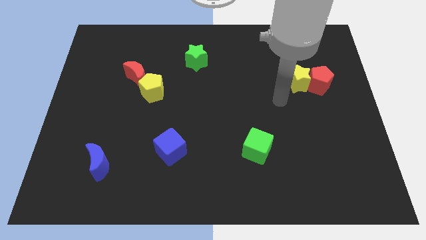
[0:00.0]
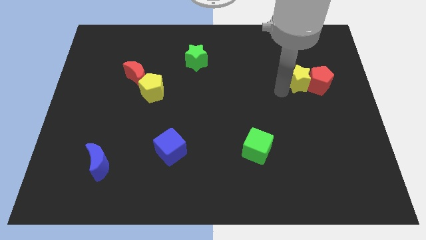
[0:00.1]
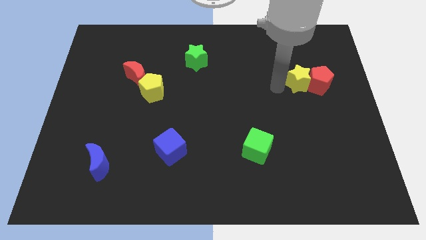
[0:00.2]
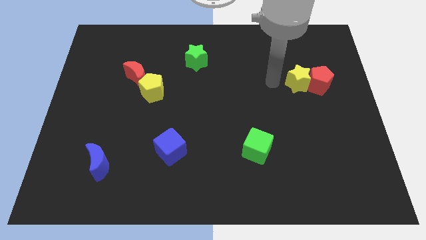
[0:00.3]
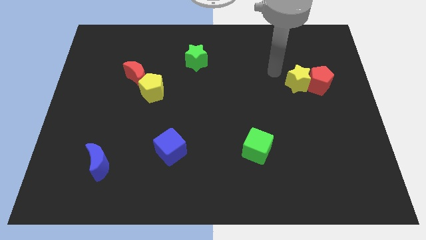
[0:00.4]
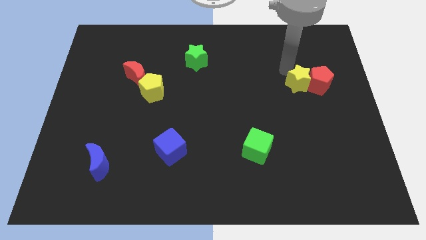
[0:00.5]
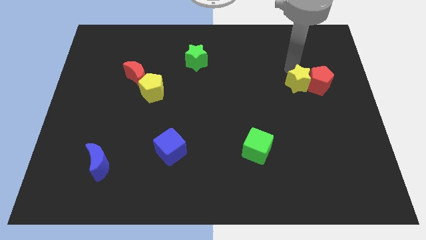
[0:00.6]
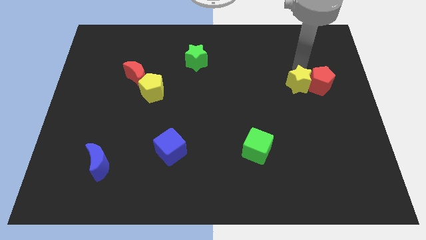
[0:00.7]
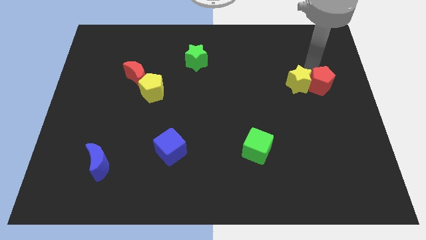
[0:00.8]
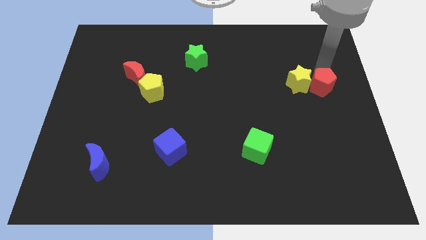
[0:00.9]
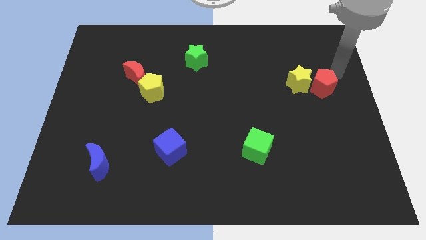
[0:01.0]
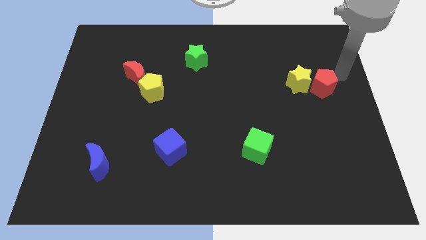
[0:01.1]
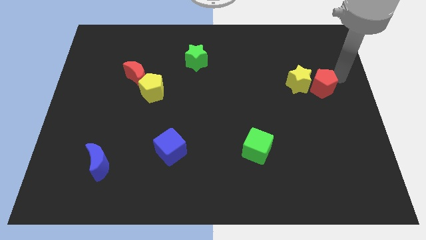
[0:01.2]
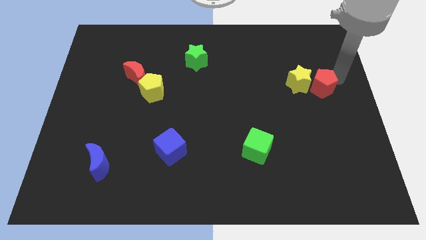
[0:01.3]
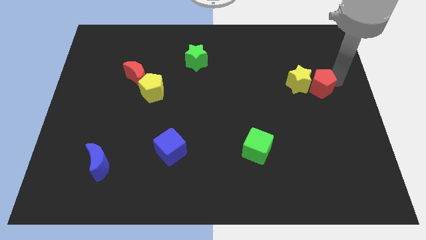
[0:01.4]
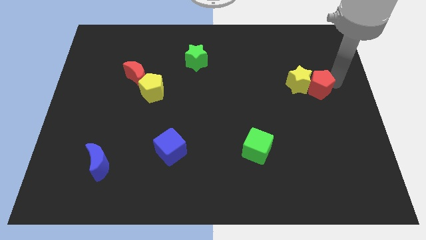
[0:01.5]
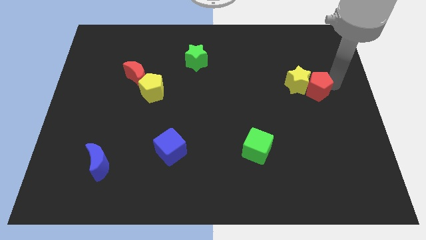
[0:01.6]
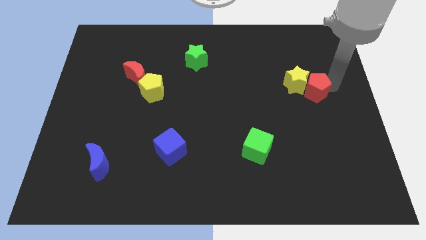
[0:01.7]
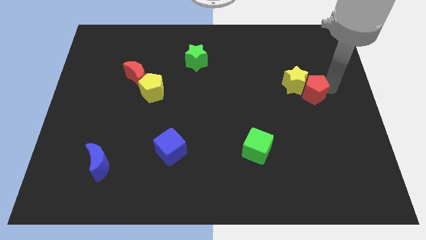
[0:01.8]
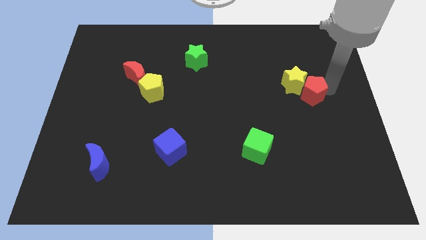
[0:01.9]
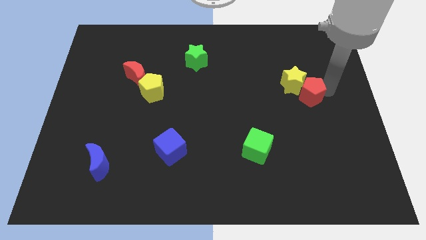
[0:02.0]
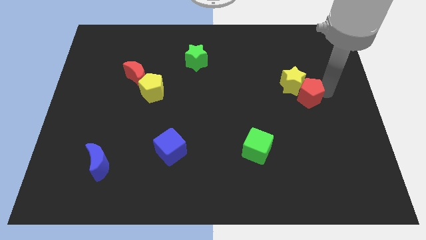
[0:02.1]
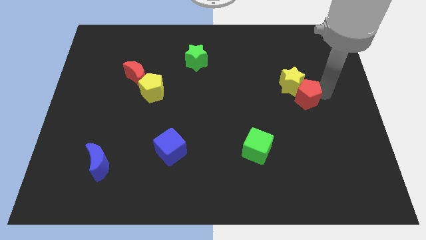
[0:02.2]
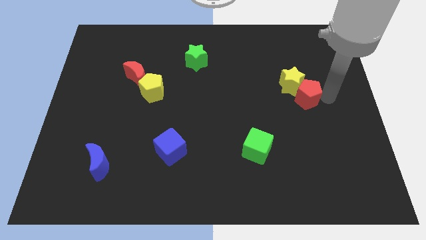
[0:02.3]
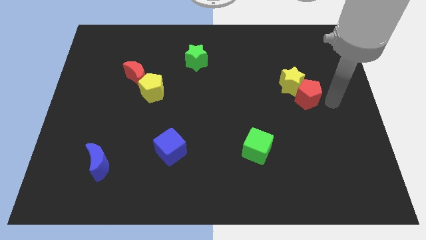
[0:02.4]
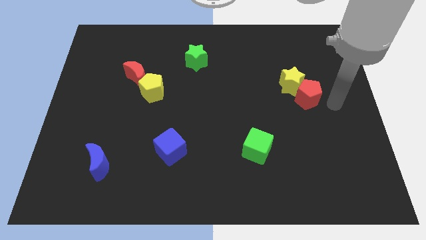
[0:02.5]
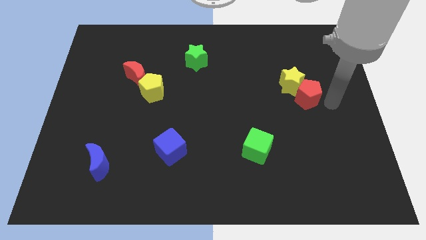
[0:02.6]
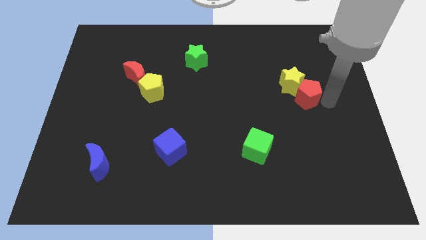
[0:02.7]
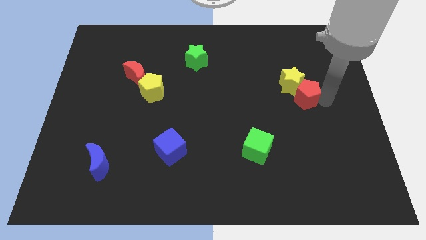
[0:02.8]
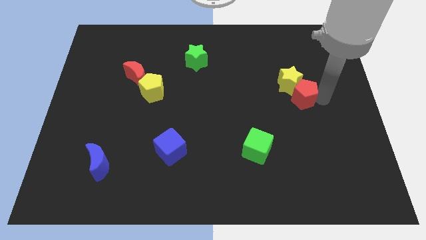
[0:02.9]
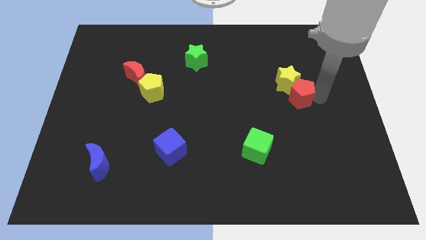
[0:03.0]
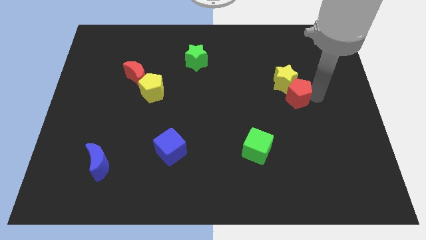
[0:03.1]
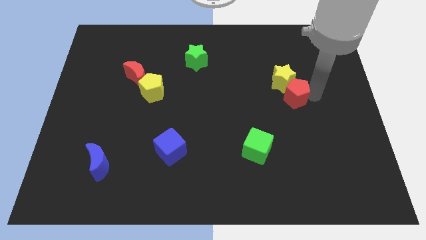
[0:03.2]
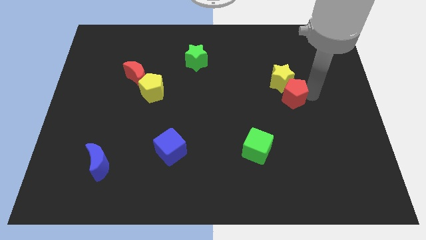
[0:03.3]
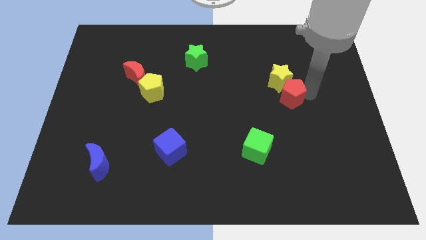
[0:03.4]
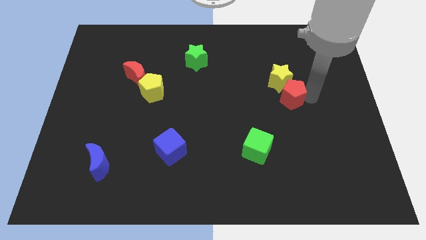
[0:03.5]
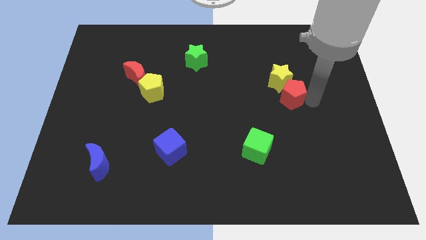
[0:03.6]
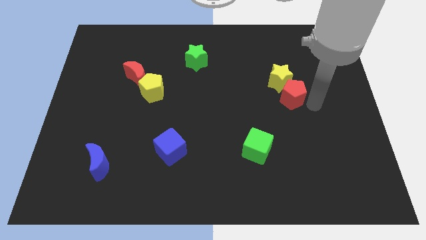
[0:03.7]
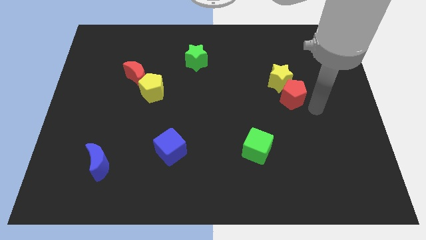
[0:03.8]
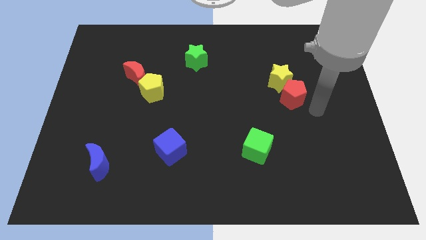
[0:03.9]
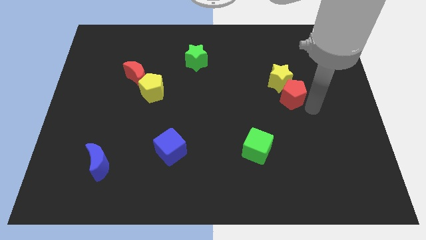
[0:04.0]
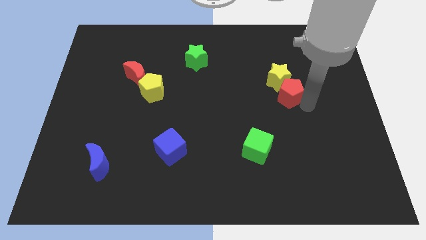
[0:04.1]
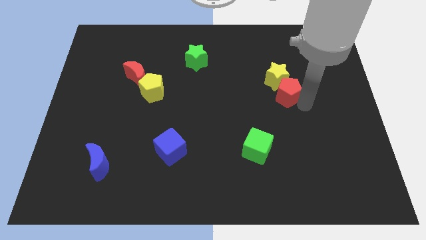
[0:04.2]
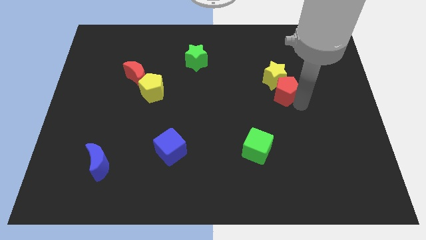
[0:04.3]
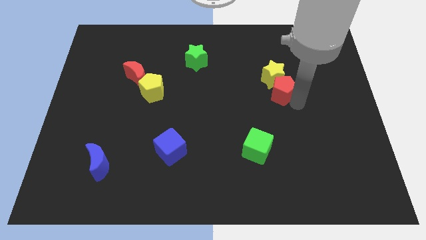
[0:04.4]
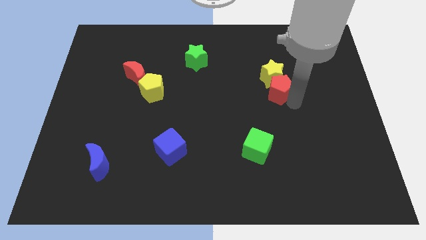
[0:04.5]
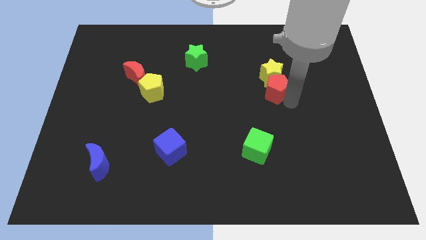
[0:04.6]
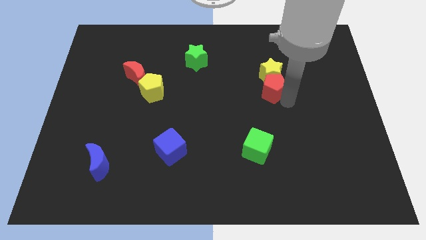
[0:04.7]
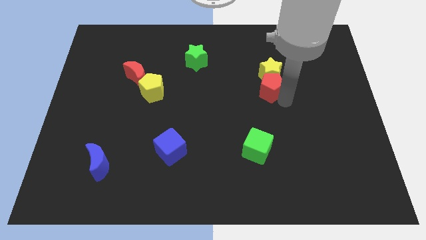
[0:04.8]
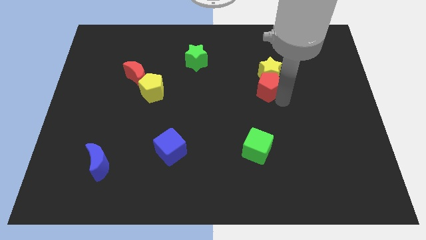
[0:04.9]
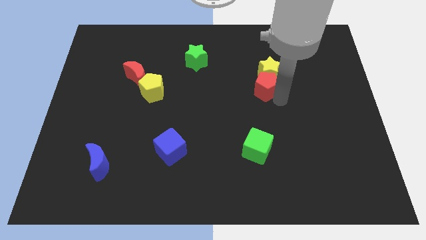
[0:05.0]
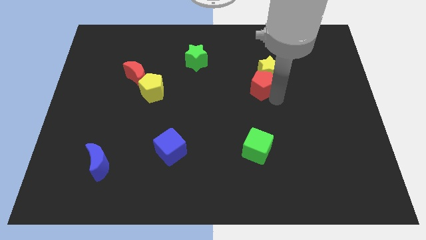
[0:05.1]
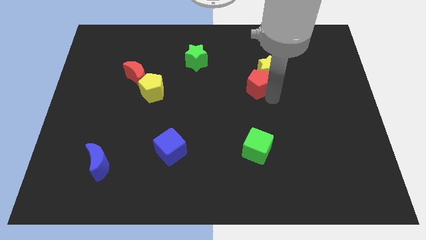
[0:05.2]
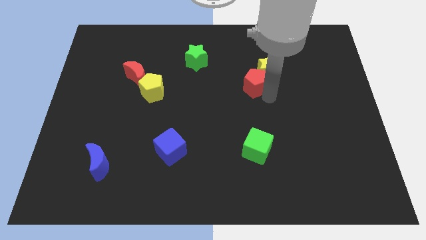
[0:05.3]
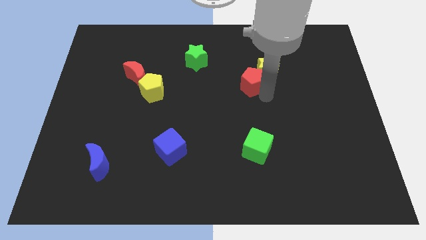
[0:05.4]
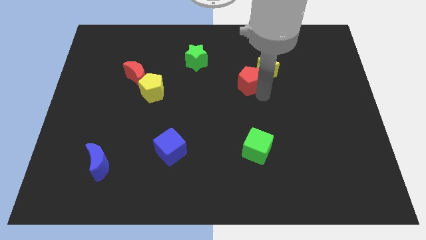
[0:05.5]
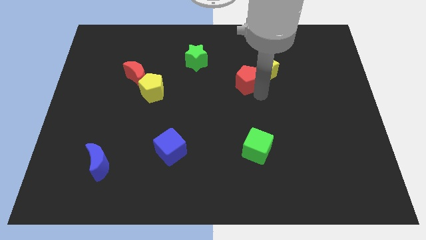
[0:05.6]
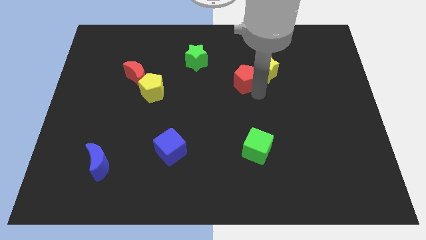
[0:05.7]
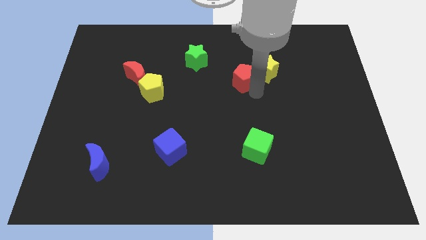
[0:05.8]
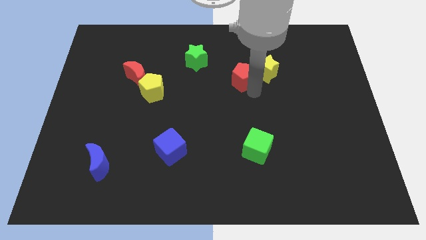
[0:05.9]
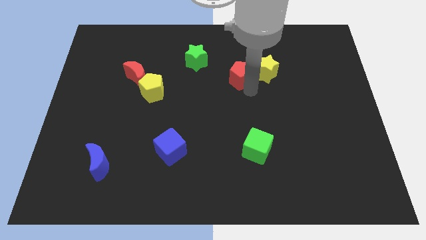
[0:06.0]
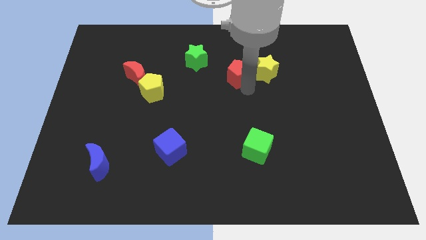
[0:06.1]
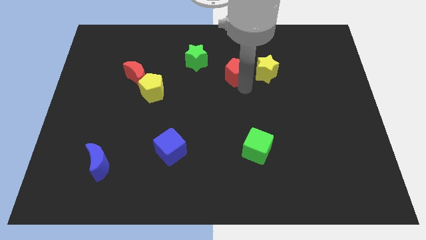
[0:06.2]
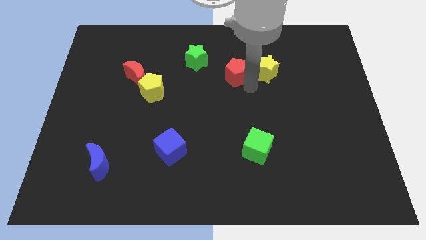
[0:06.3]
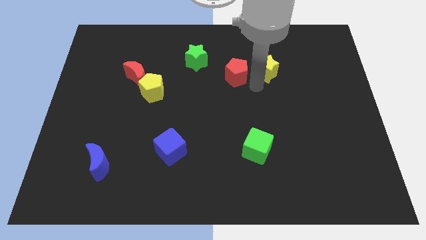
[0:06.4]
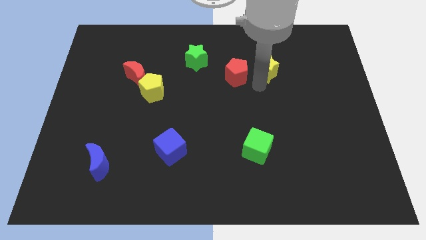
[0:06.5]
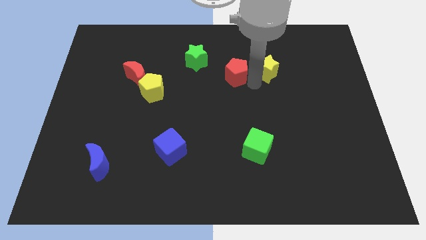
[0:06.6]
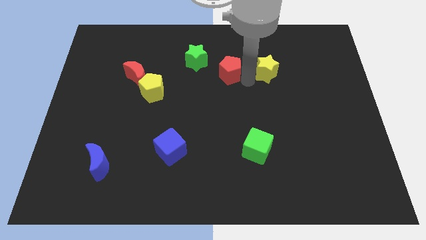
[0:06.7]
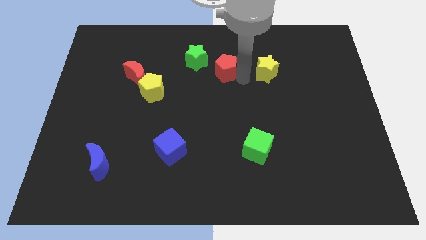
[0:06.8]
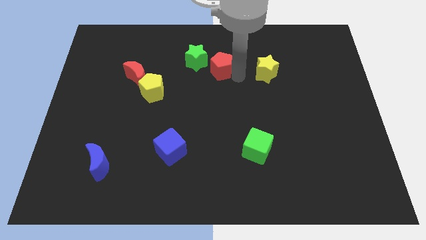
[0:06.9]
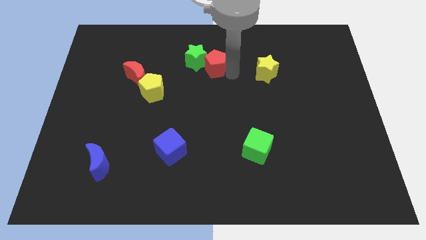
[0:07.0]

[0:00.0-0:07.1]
slide the red pentagon to the green star

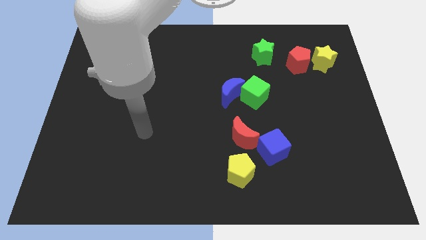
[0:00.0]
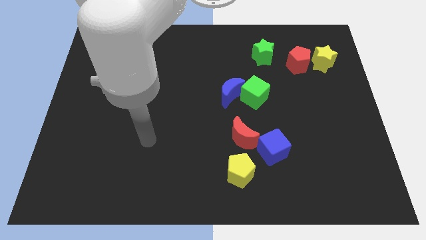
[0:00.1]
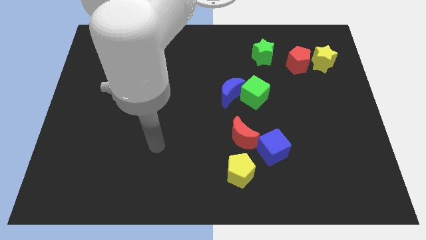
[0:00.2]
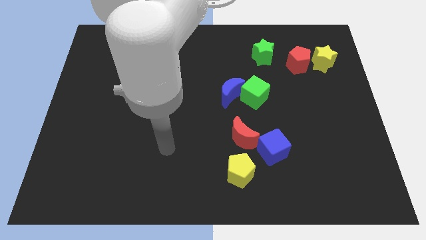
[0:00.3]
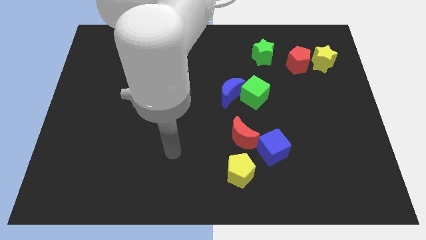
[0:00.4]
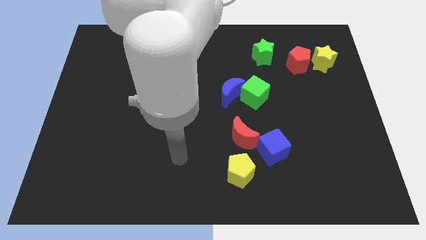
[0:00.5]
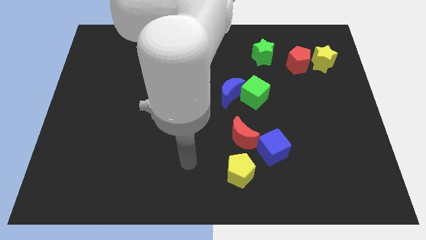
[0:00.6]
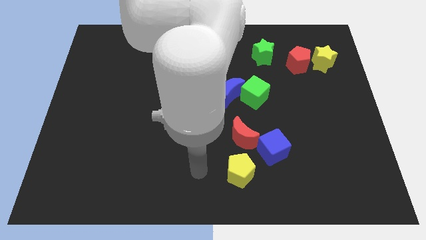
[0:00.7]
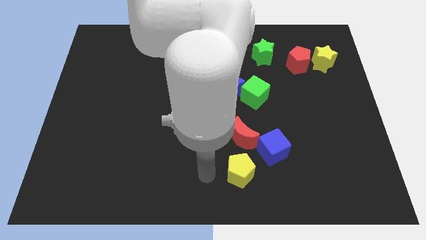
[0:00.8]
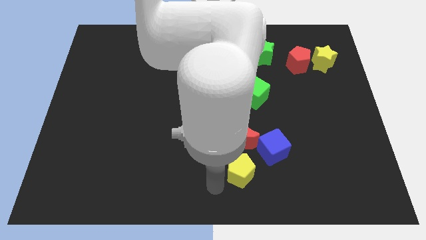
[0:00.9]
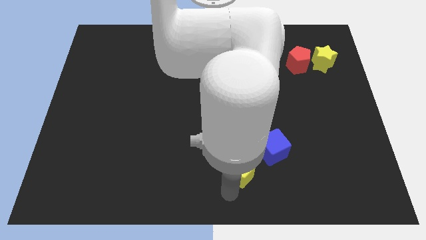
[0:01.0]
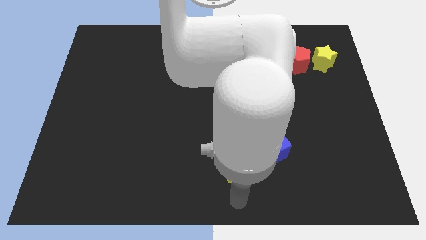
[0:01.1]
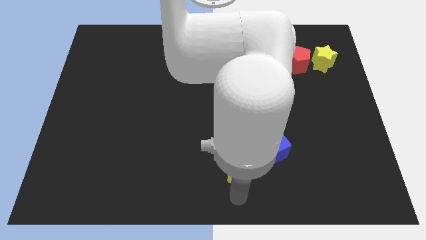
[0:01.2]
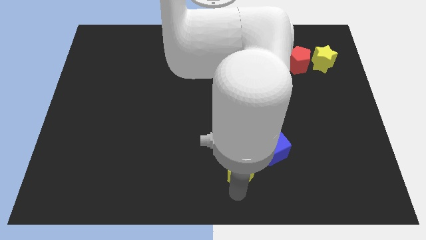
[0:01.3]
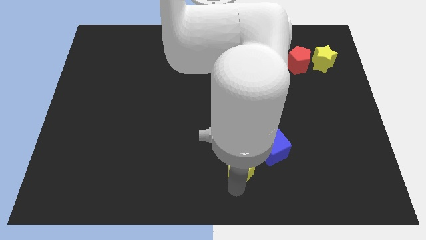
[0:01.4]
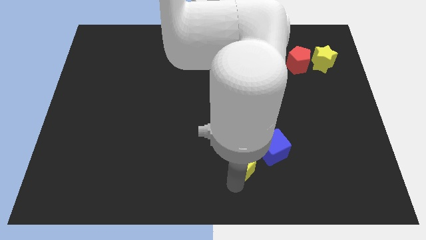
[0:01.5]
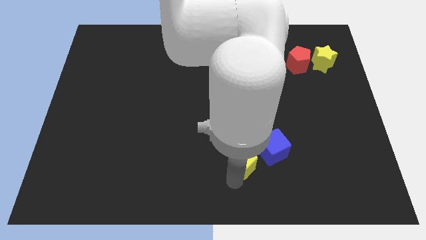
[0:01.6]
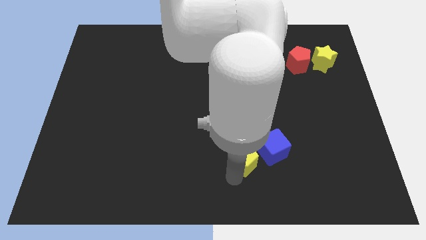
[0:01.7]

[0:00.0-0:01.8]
put the yellow pentagon close to the red moon
